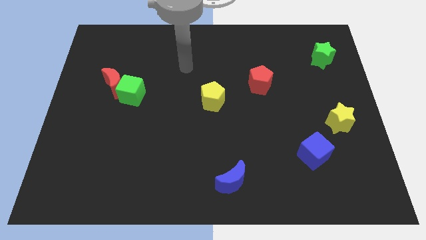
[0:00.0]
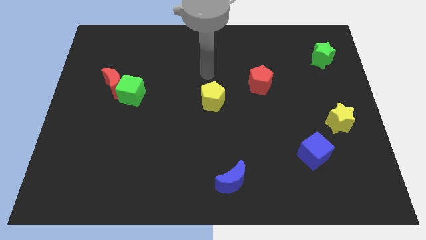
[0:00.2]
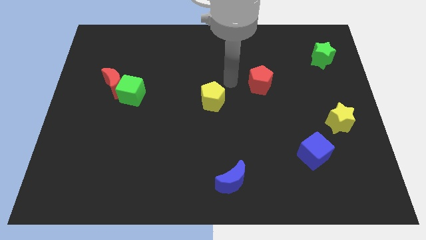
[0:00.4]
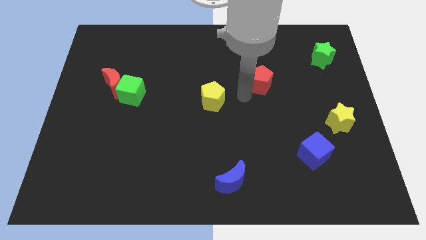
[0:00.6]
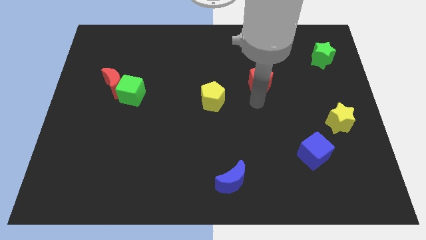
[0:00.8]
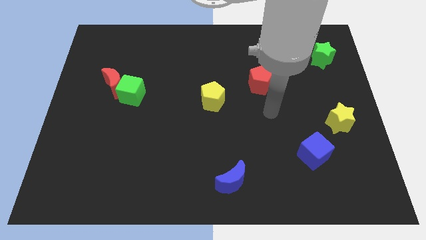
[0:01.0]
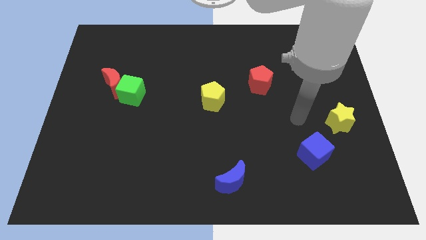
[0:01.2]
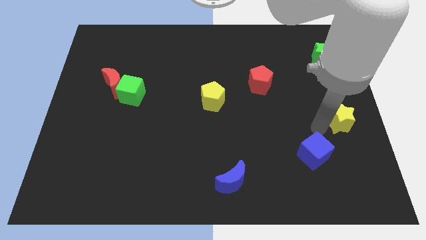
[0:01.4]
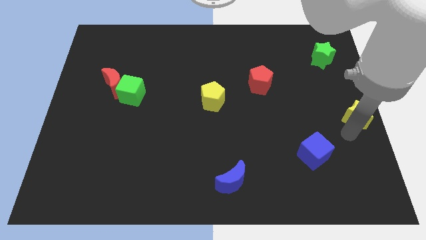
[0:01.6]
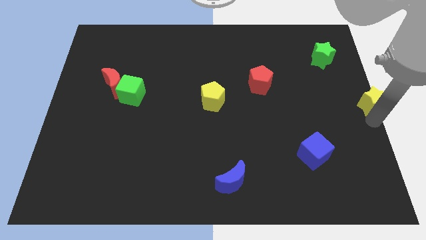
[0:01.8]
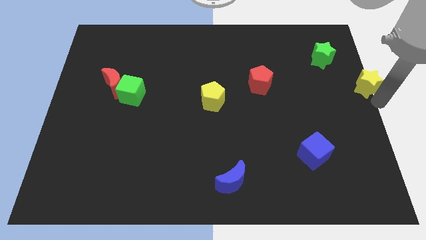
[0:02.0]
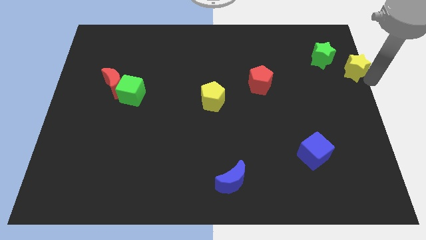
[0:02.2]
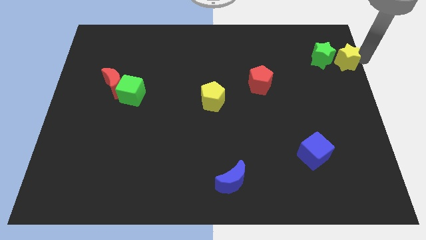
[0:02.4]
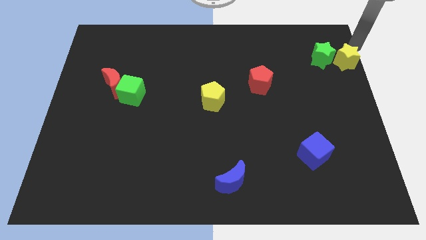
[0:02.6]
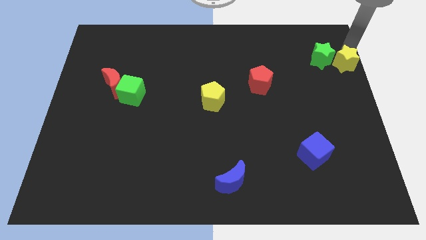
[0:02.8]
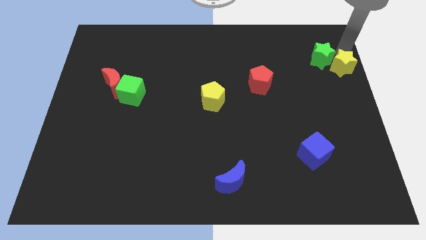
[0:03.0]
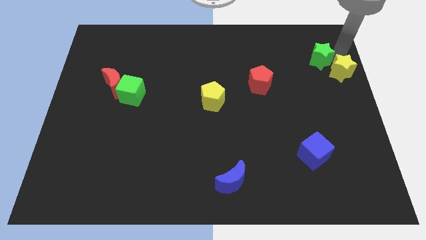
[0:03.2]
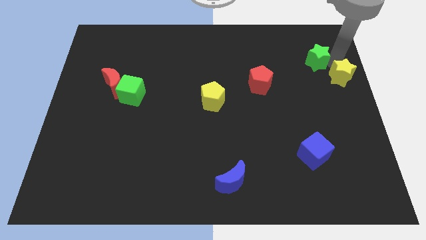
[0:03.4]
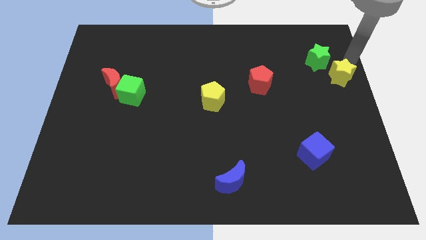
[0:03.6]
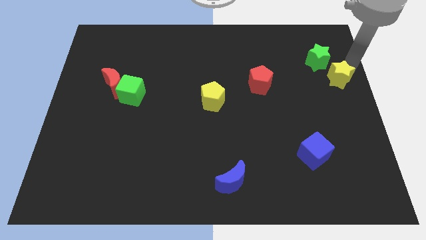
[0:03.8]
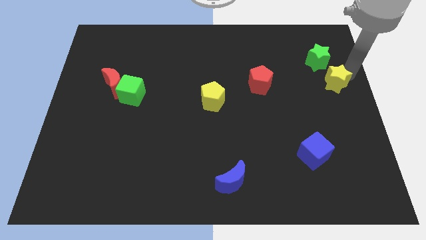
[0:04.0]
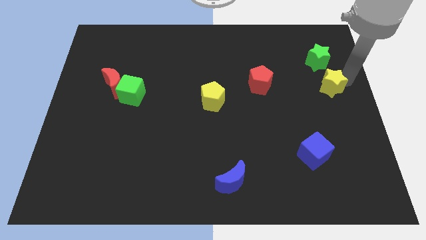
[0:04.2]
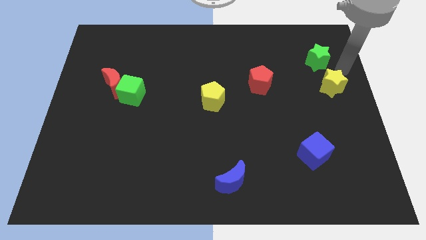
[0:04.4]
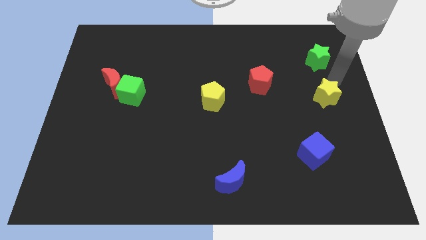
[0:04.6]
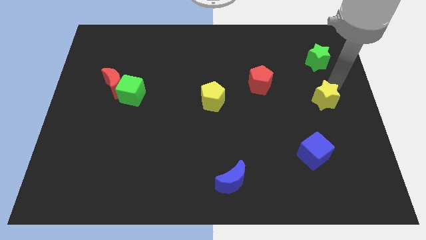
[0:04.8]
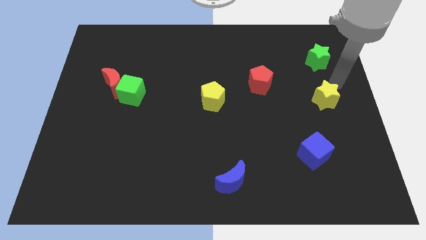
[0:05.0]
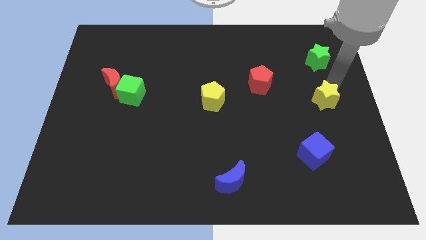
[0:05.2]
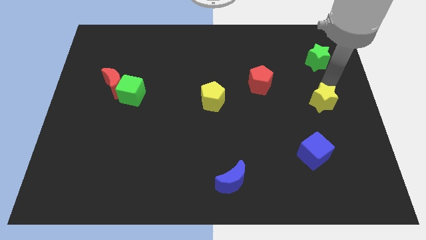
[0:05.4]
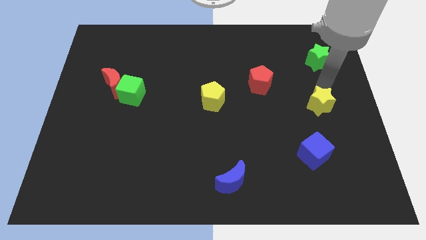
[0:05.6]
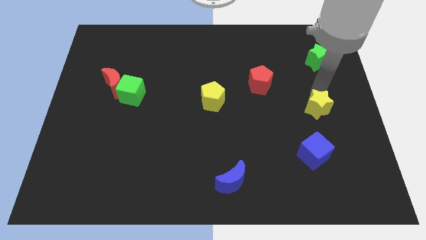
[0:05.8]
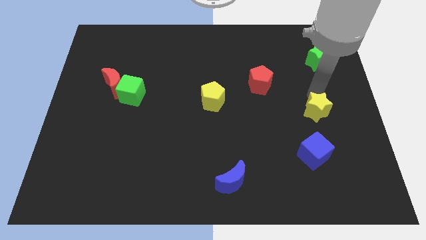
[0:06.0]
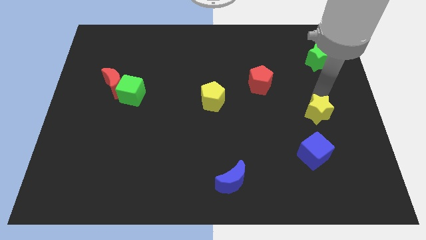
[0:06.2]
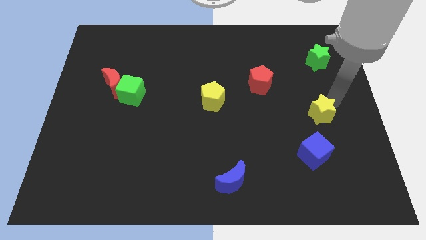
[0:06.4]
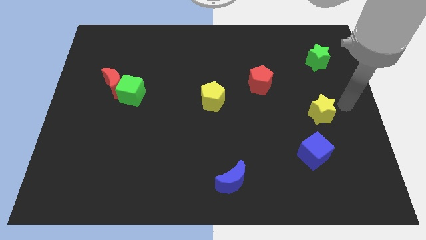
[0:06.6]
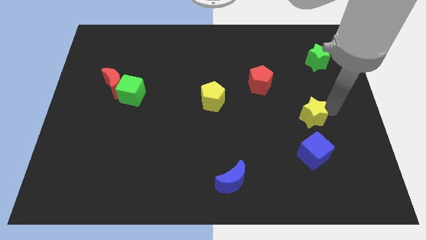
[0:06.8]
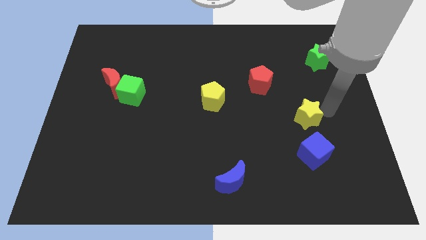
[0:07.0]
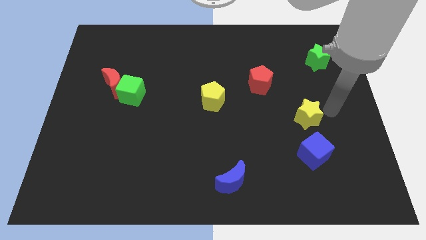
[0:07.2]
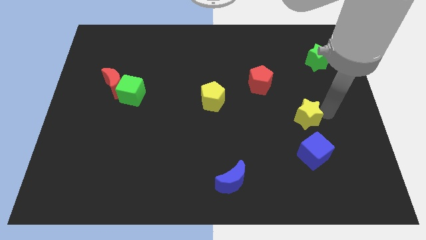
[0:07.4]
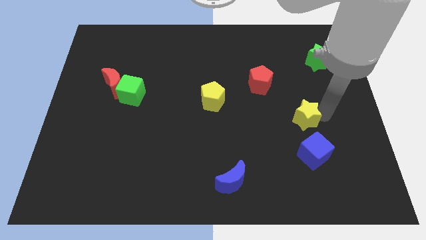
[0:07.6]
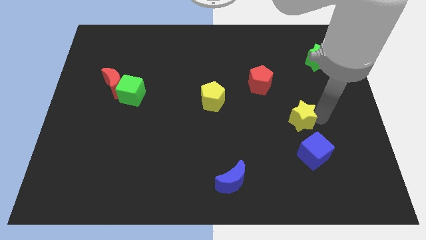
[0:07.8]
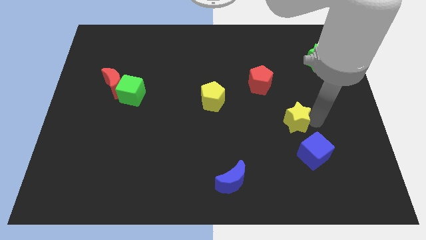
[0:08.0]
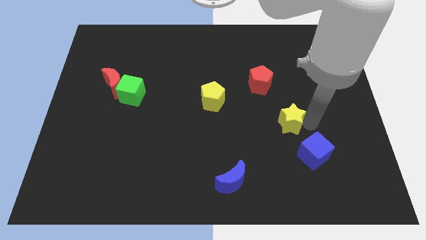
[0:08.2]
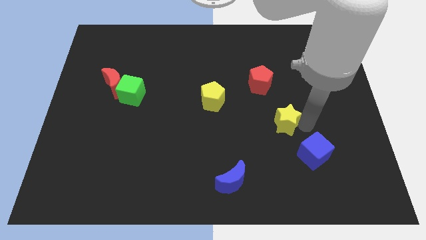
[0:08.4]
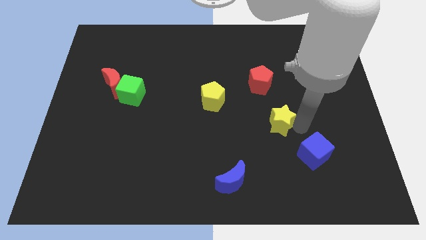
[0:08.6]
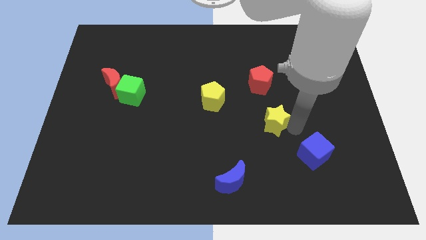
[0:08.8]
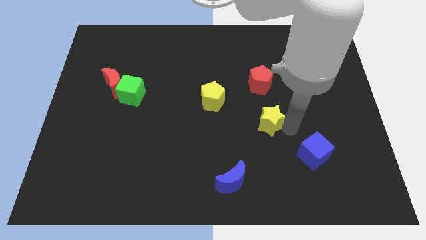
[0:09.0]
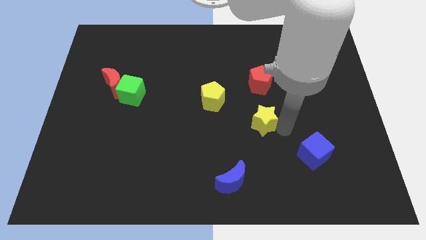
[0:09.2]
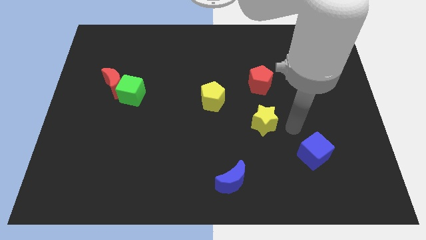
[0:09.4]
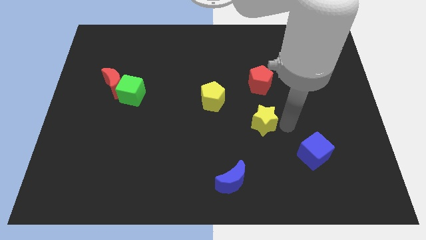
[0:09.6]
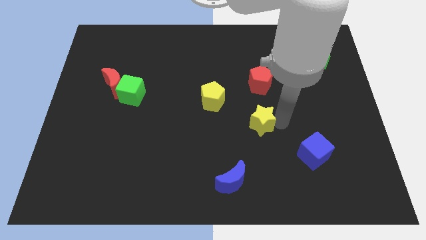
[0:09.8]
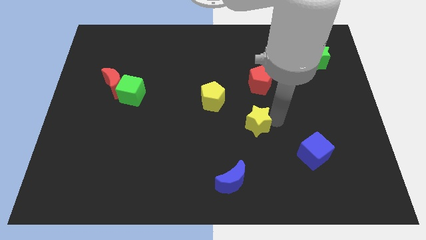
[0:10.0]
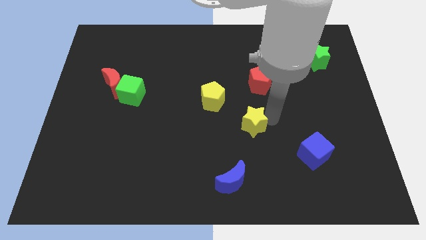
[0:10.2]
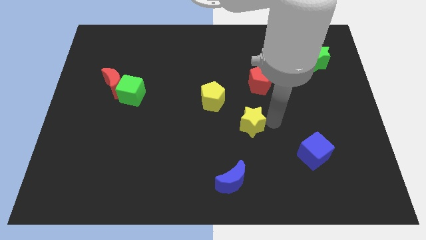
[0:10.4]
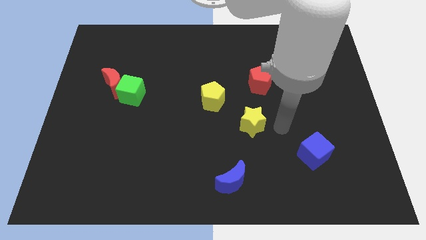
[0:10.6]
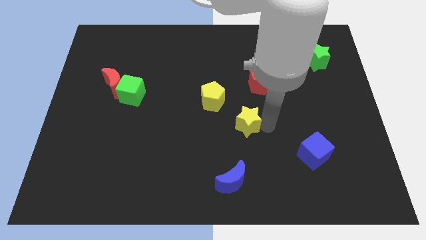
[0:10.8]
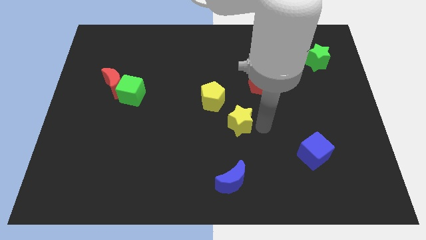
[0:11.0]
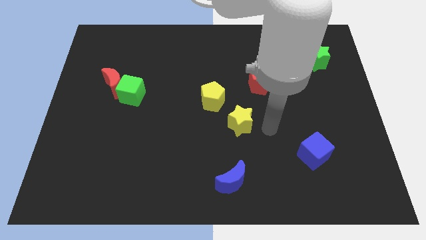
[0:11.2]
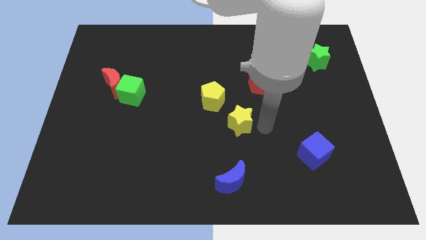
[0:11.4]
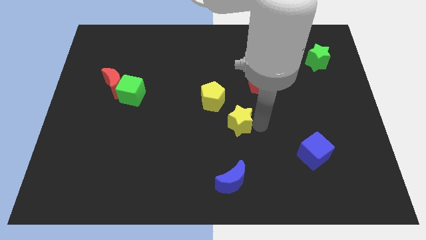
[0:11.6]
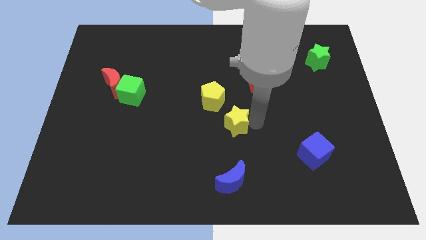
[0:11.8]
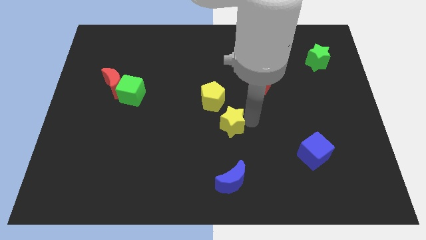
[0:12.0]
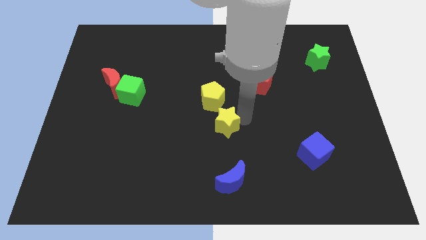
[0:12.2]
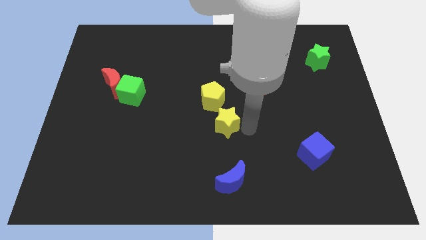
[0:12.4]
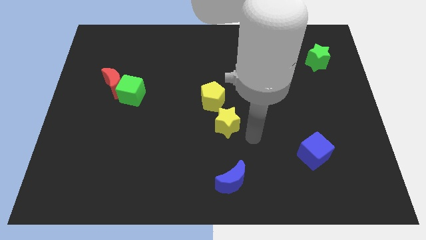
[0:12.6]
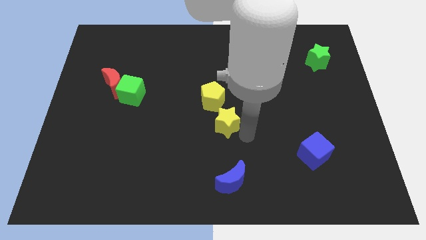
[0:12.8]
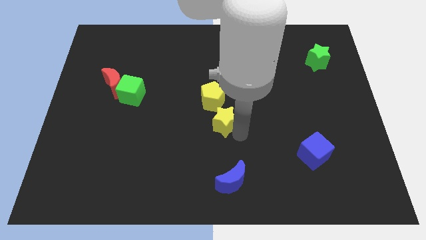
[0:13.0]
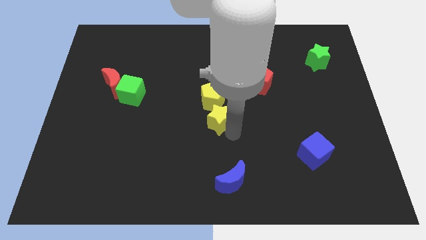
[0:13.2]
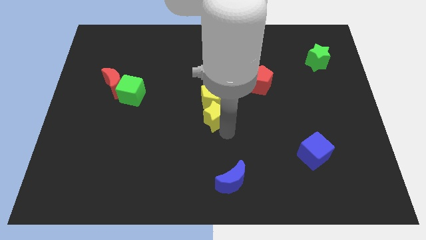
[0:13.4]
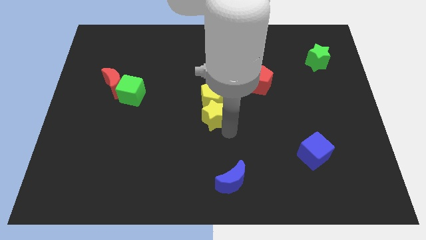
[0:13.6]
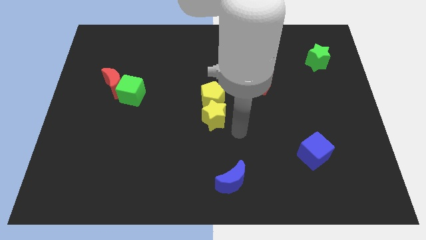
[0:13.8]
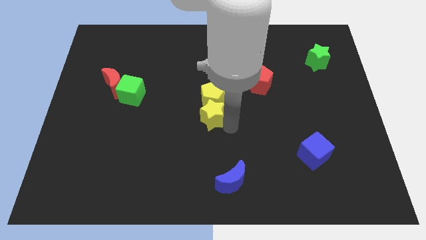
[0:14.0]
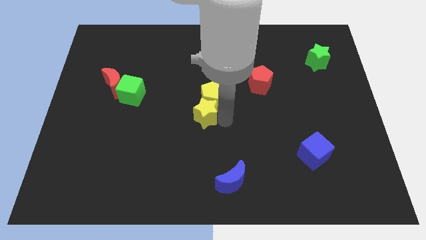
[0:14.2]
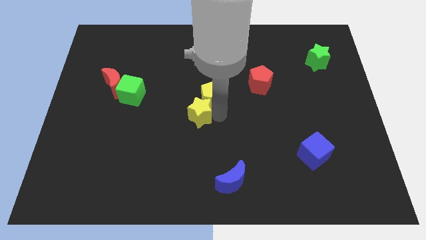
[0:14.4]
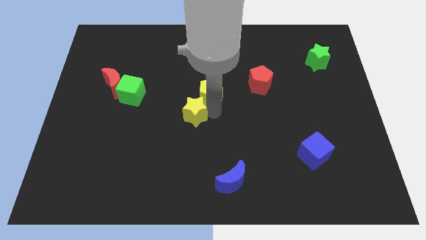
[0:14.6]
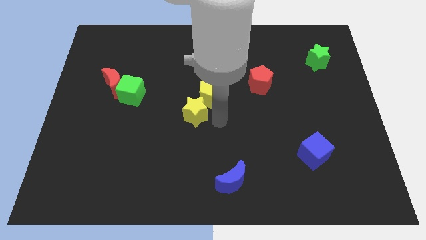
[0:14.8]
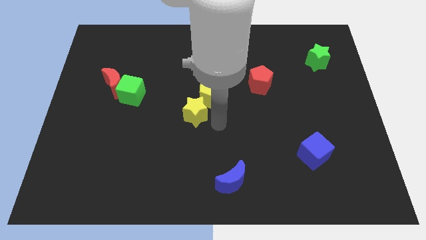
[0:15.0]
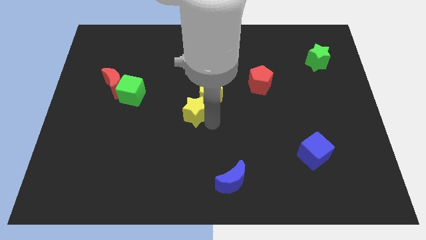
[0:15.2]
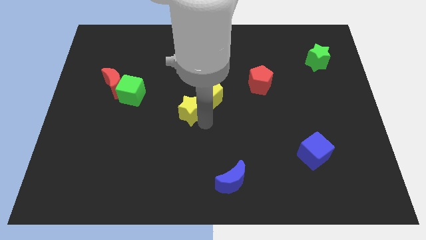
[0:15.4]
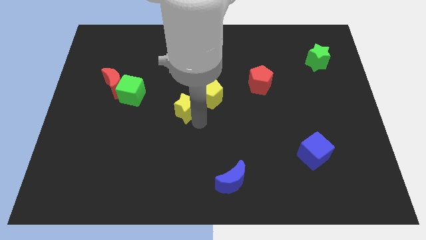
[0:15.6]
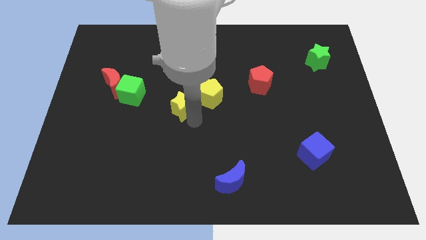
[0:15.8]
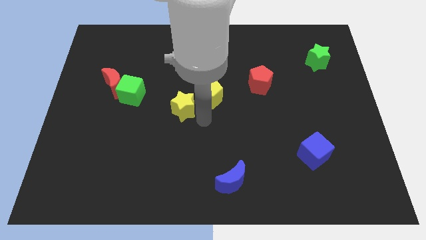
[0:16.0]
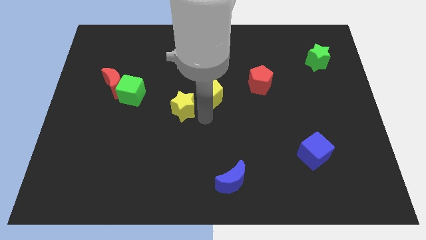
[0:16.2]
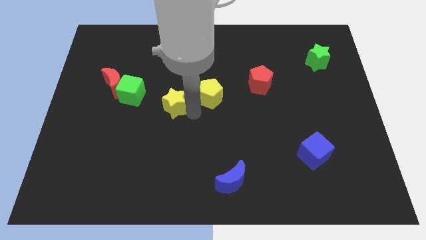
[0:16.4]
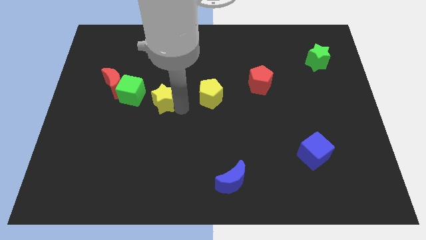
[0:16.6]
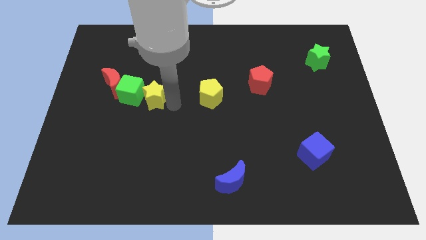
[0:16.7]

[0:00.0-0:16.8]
move the yellow star towards the green cube
